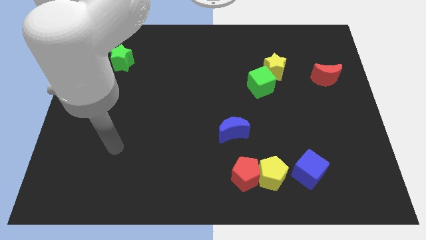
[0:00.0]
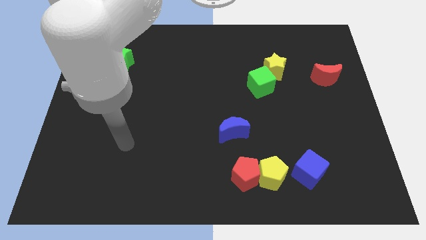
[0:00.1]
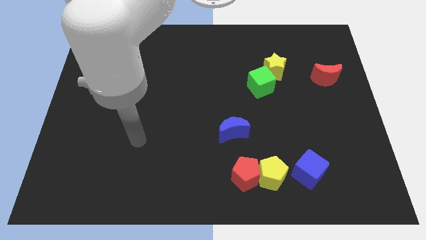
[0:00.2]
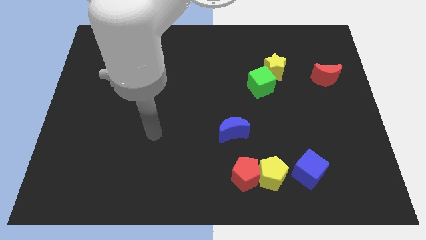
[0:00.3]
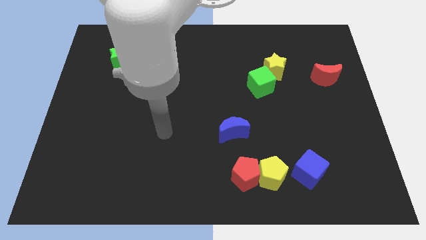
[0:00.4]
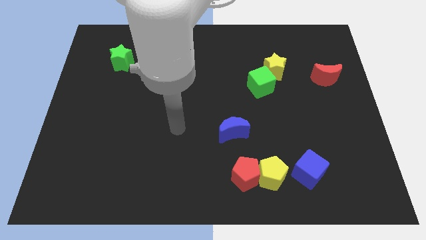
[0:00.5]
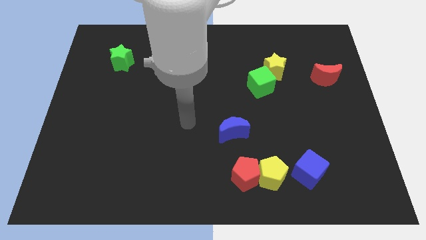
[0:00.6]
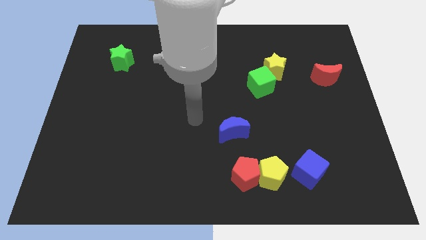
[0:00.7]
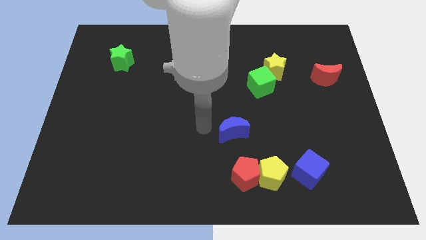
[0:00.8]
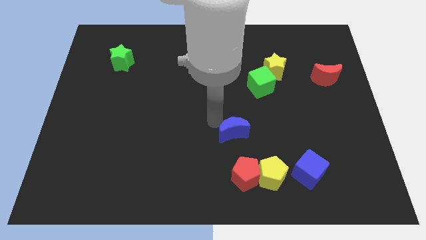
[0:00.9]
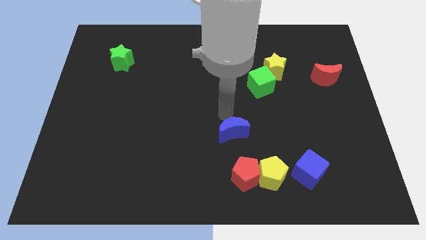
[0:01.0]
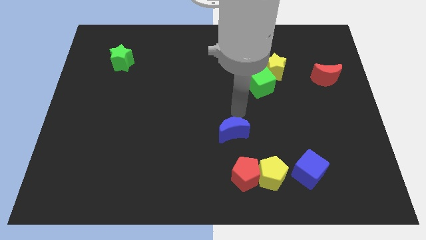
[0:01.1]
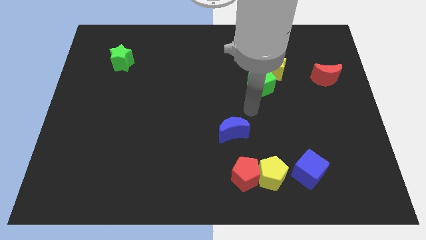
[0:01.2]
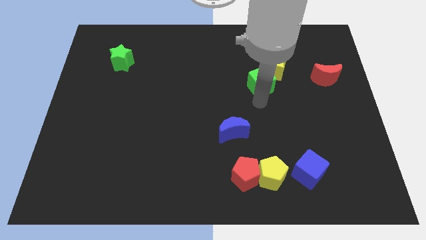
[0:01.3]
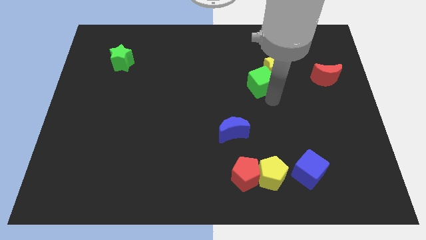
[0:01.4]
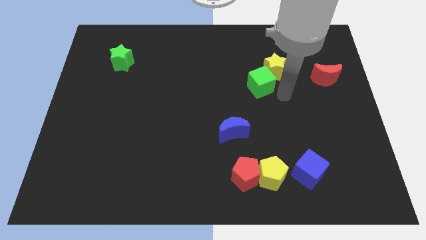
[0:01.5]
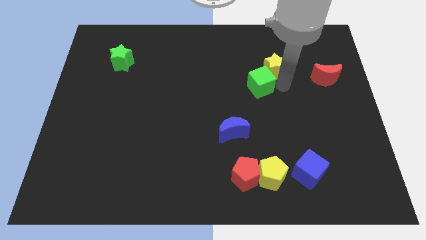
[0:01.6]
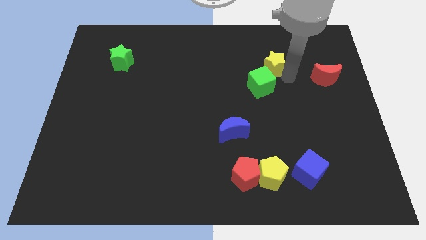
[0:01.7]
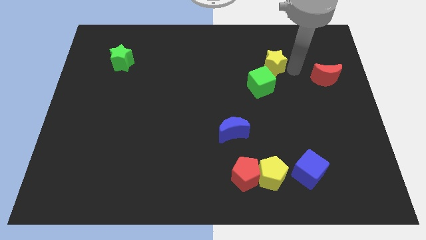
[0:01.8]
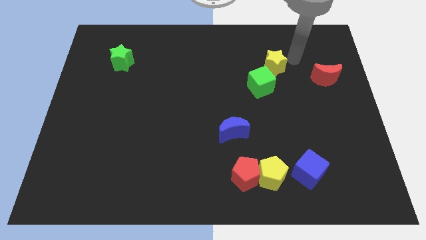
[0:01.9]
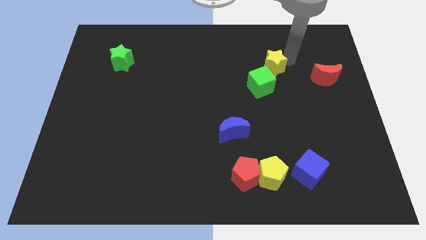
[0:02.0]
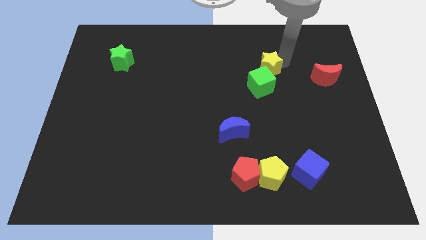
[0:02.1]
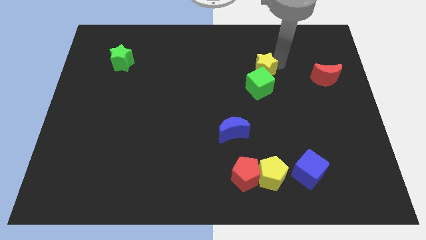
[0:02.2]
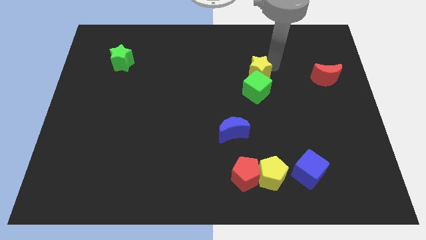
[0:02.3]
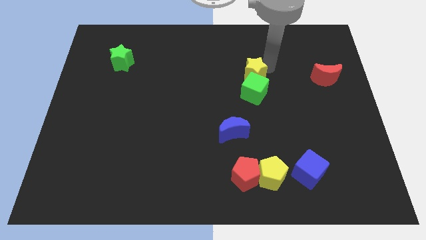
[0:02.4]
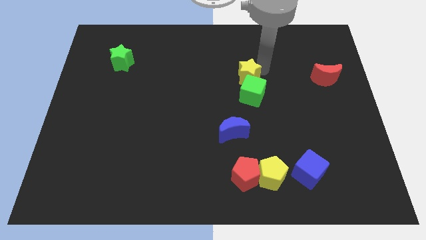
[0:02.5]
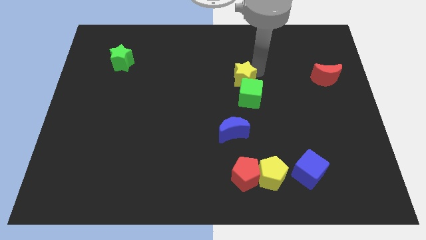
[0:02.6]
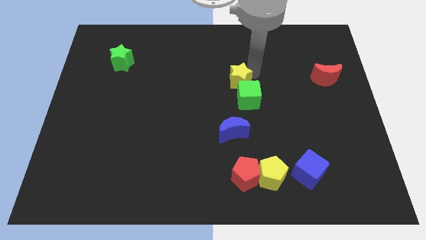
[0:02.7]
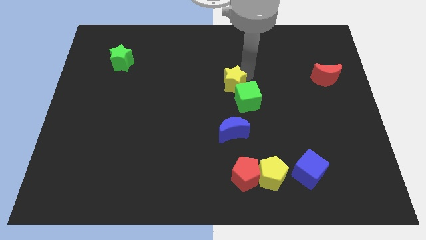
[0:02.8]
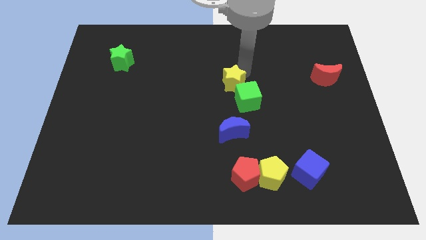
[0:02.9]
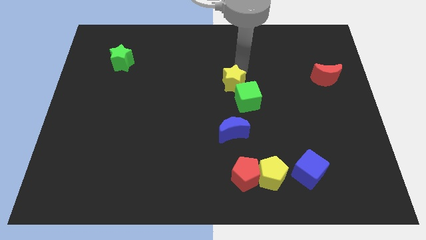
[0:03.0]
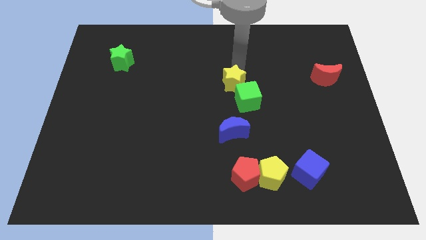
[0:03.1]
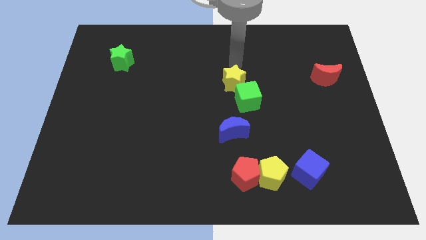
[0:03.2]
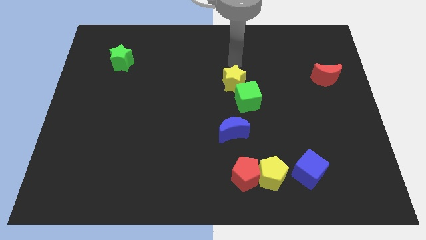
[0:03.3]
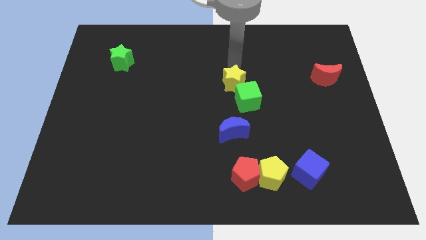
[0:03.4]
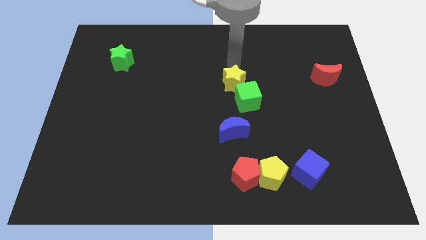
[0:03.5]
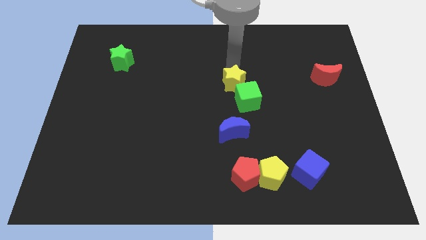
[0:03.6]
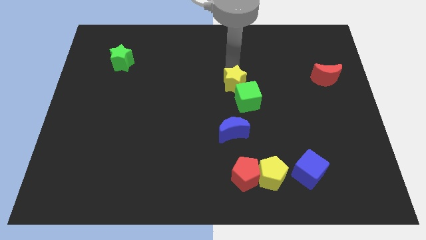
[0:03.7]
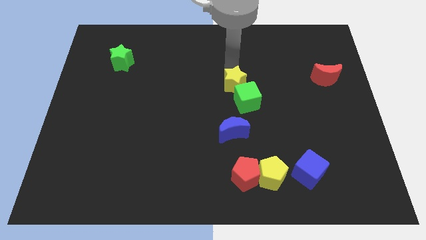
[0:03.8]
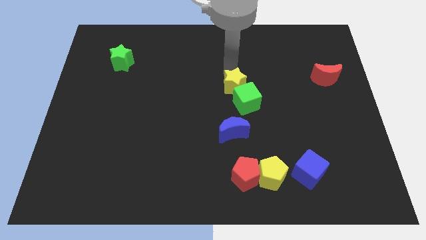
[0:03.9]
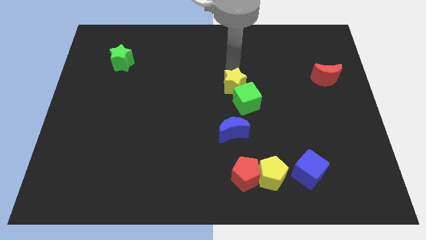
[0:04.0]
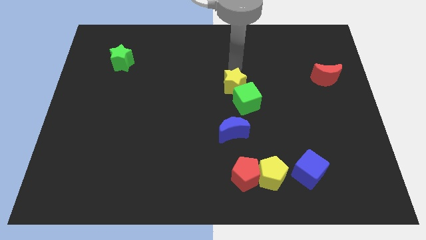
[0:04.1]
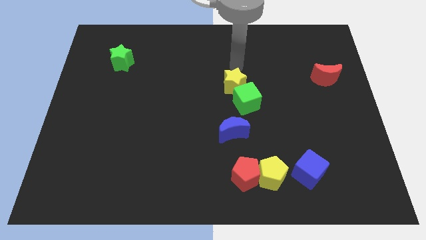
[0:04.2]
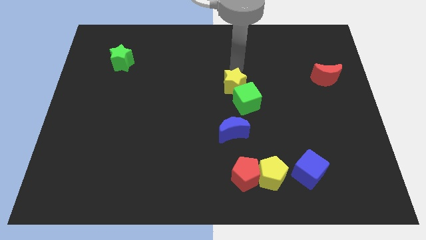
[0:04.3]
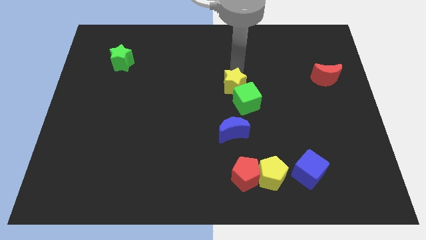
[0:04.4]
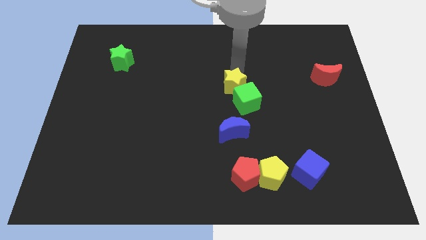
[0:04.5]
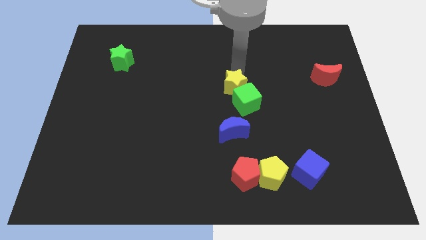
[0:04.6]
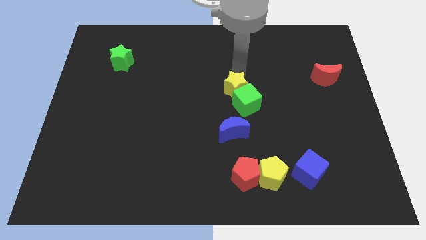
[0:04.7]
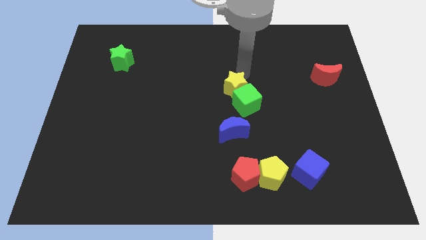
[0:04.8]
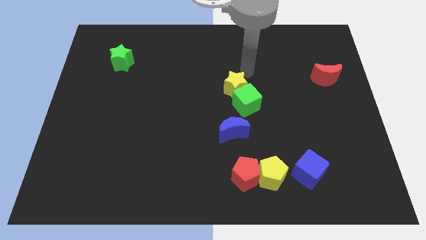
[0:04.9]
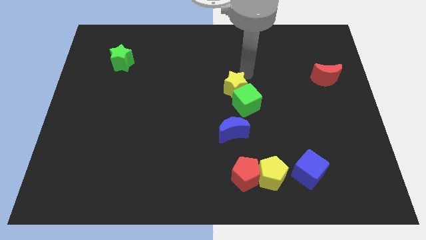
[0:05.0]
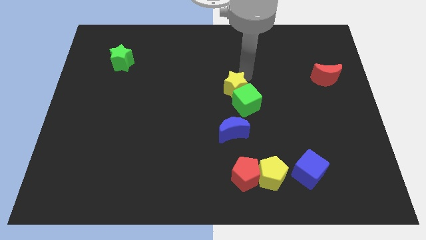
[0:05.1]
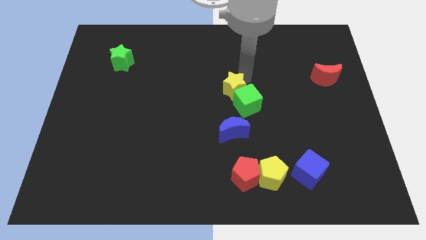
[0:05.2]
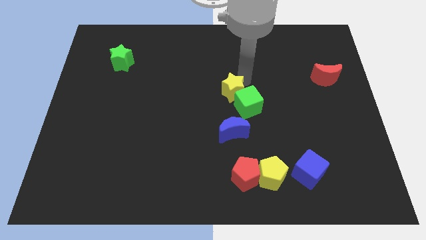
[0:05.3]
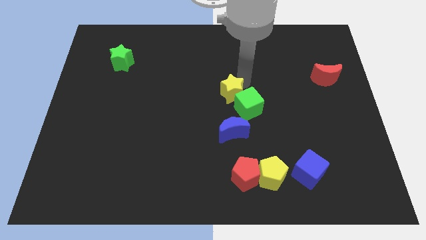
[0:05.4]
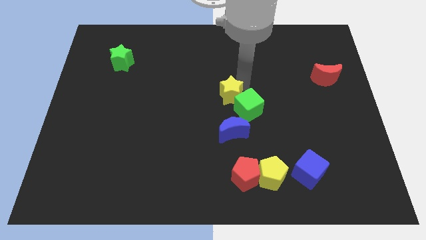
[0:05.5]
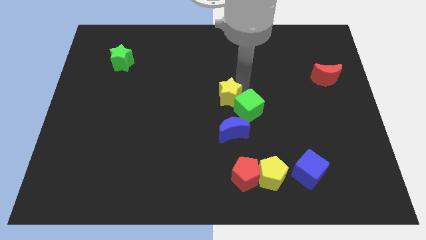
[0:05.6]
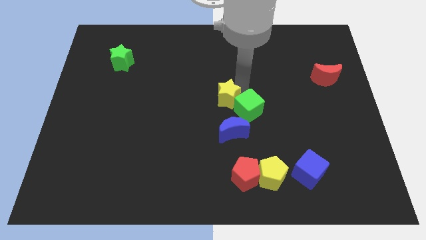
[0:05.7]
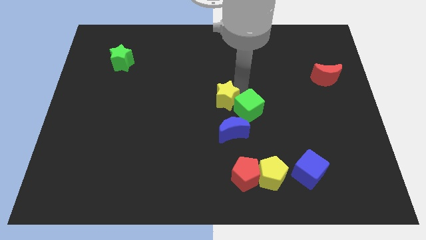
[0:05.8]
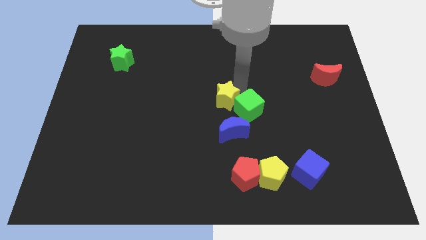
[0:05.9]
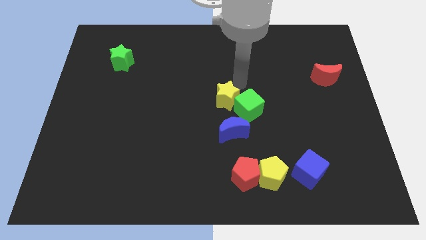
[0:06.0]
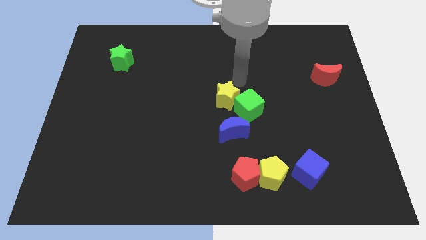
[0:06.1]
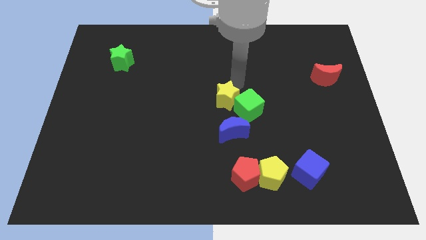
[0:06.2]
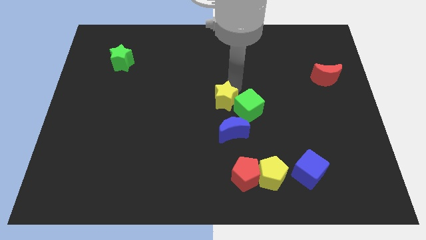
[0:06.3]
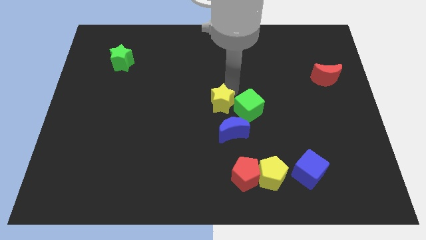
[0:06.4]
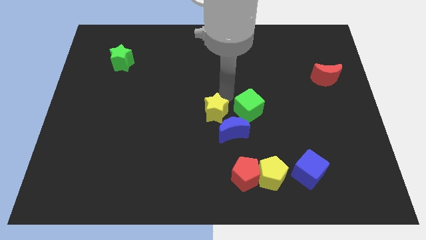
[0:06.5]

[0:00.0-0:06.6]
move the yellow star diagonally down and left

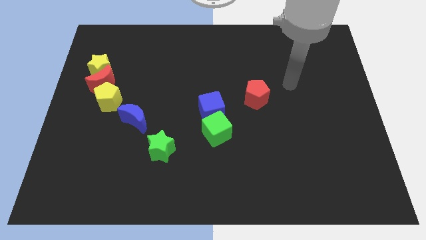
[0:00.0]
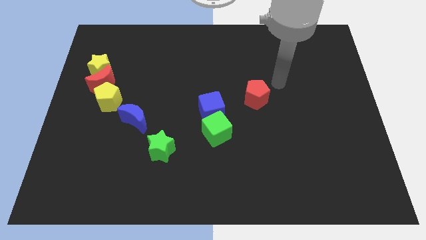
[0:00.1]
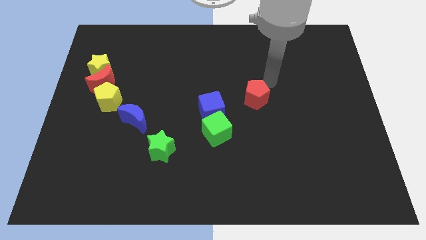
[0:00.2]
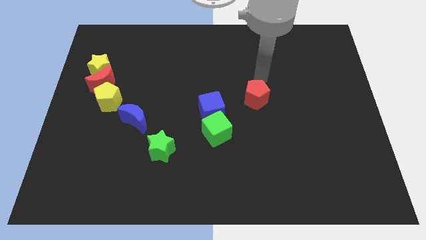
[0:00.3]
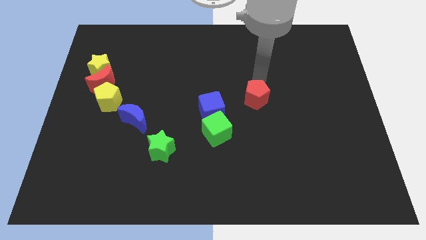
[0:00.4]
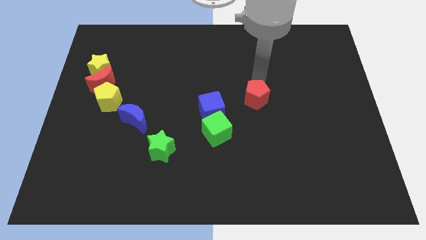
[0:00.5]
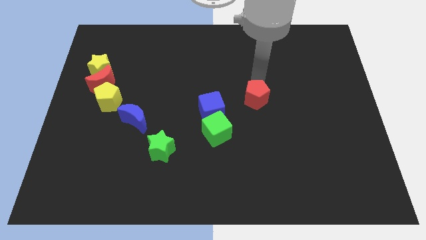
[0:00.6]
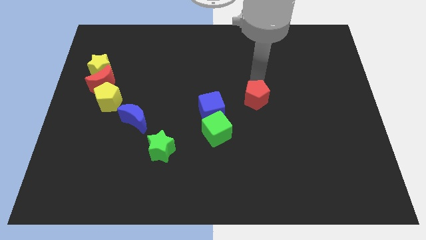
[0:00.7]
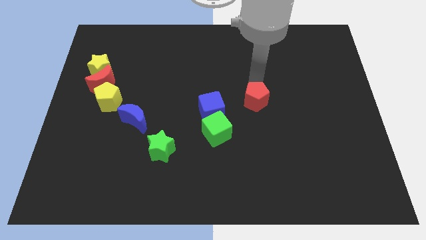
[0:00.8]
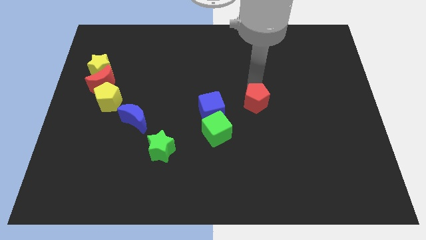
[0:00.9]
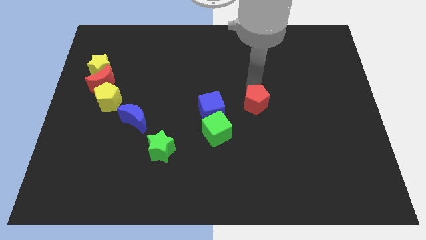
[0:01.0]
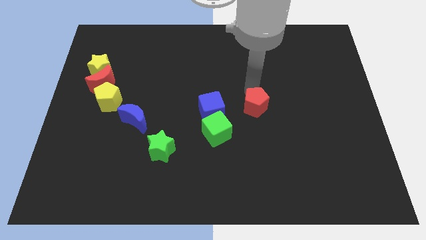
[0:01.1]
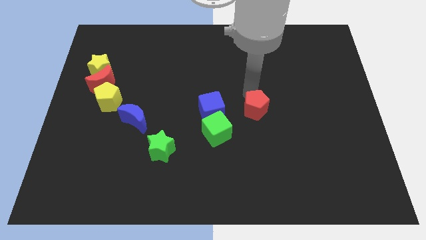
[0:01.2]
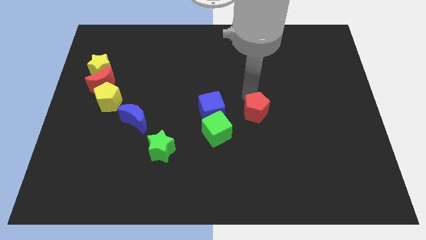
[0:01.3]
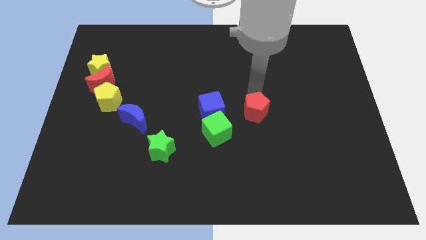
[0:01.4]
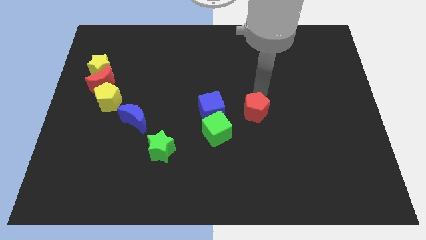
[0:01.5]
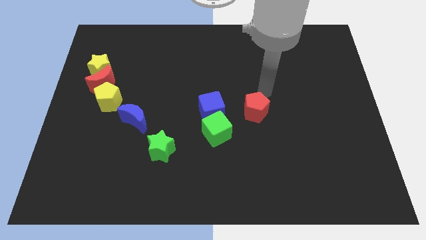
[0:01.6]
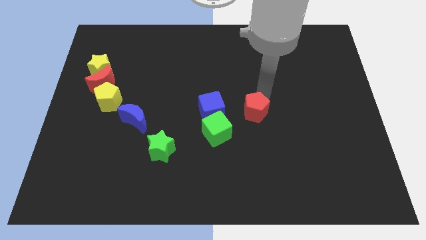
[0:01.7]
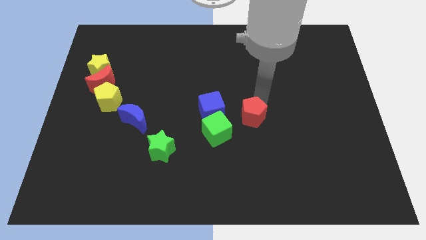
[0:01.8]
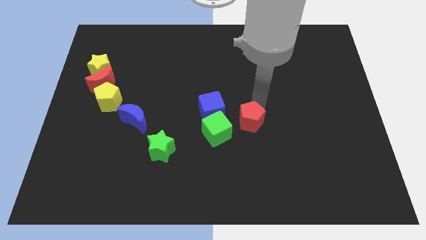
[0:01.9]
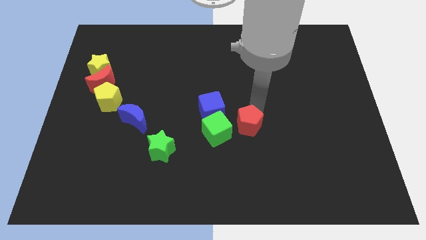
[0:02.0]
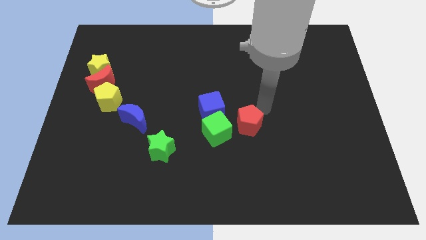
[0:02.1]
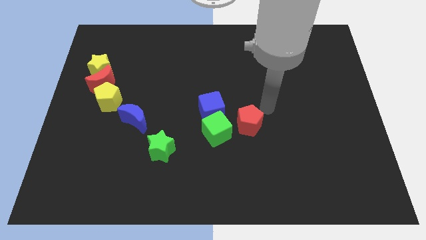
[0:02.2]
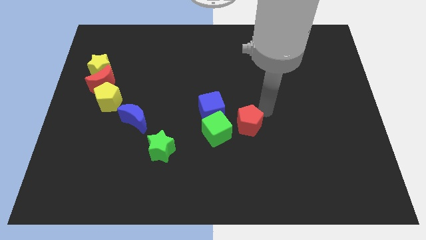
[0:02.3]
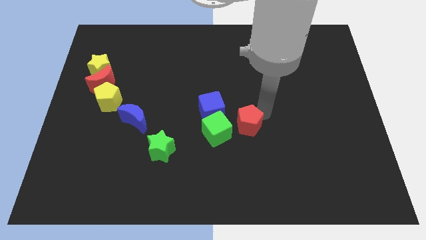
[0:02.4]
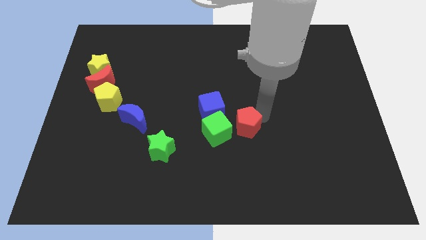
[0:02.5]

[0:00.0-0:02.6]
slide the red pentagon a little bit down and then left
